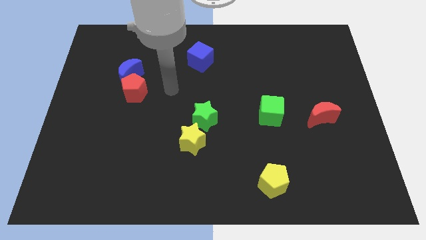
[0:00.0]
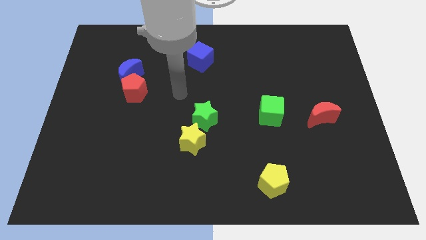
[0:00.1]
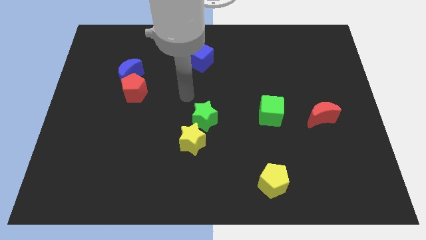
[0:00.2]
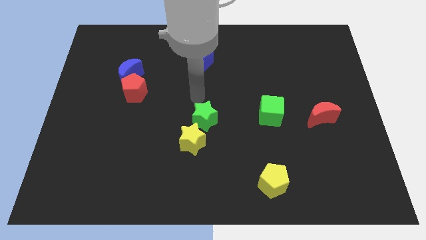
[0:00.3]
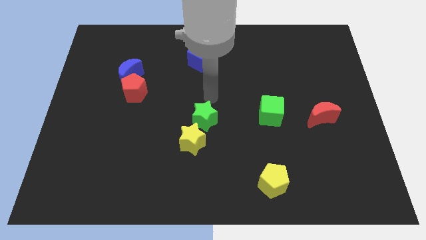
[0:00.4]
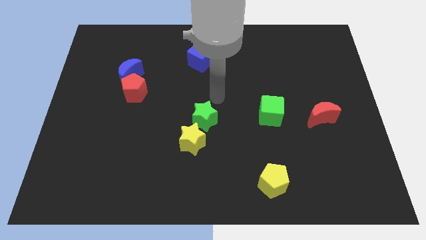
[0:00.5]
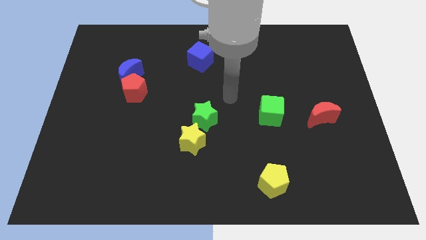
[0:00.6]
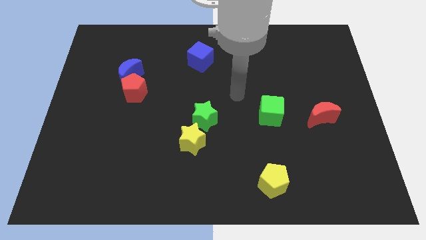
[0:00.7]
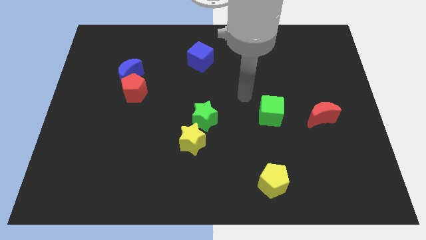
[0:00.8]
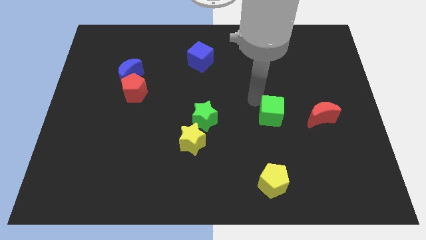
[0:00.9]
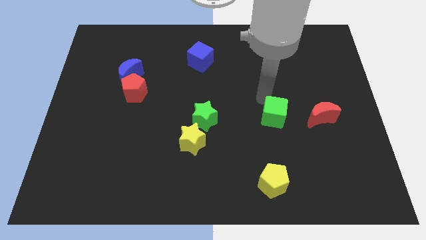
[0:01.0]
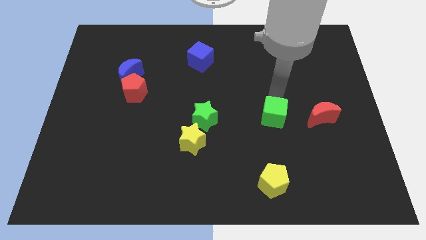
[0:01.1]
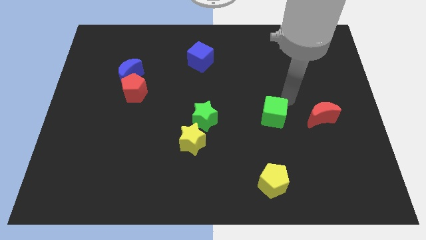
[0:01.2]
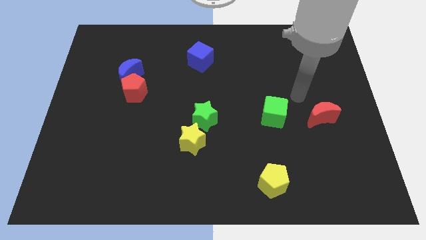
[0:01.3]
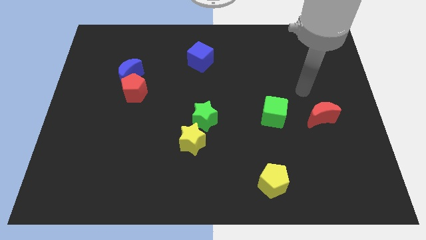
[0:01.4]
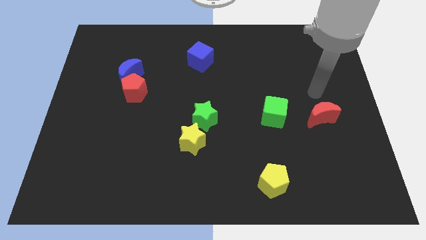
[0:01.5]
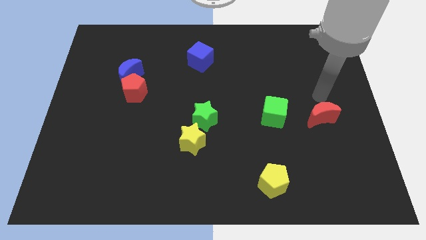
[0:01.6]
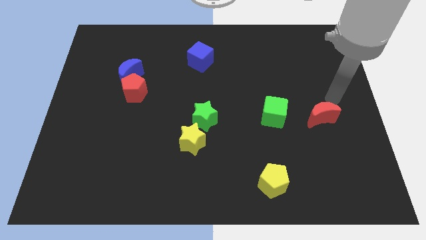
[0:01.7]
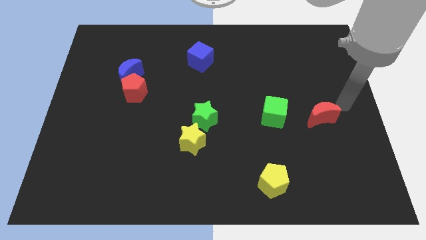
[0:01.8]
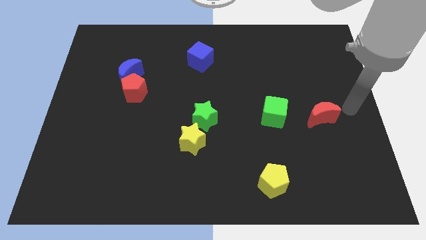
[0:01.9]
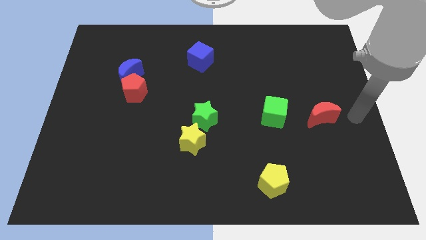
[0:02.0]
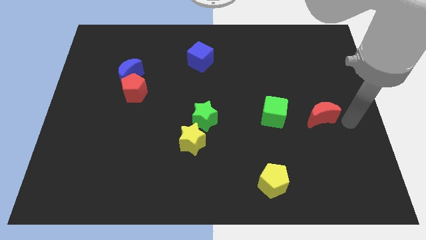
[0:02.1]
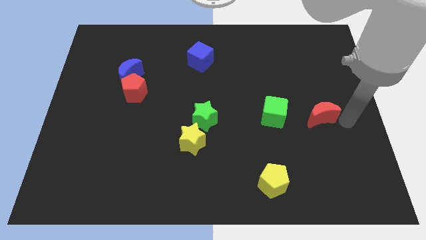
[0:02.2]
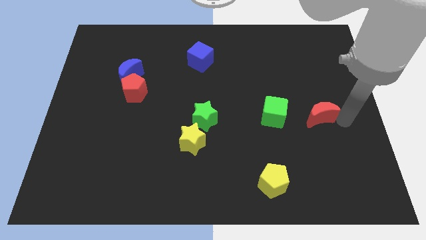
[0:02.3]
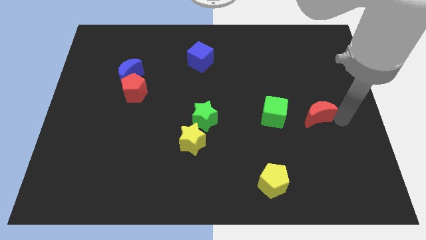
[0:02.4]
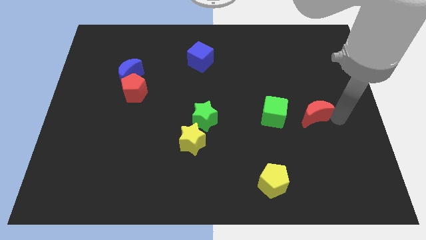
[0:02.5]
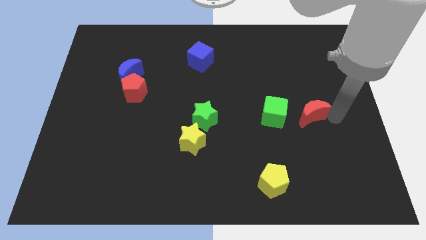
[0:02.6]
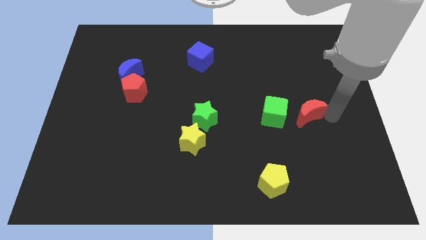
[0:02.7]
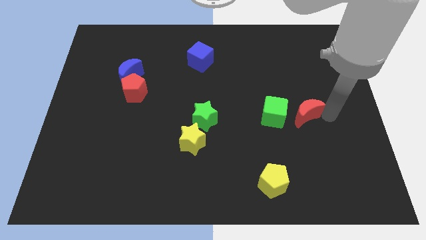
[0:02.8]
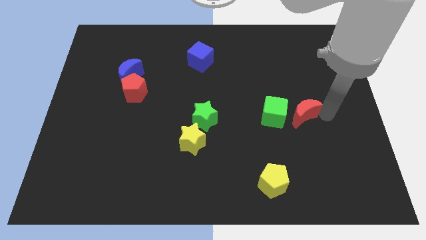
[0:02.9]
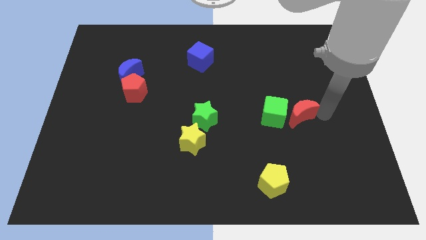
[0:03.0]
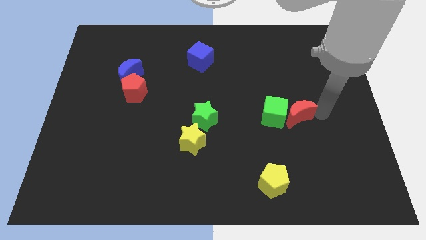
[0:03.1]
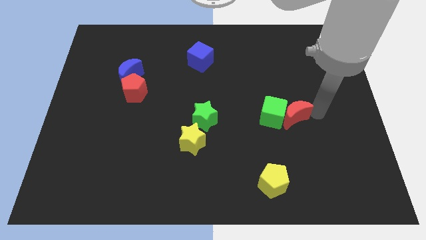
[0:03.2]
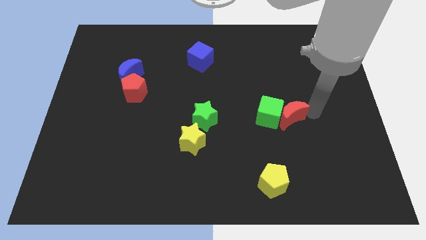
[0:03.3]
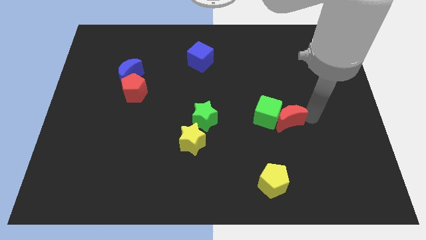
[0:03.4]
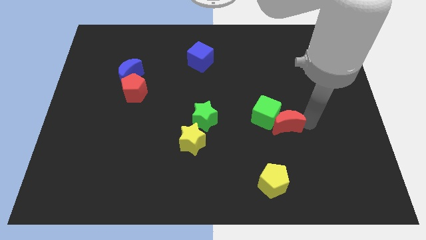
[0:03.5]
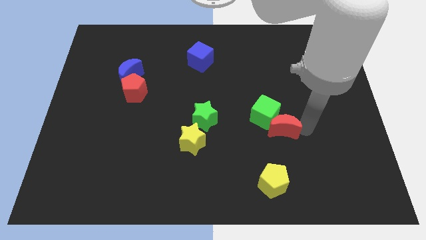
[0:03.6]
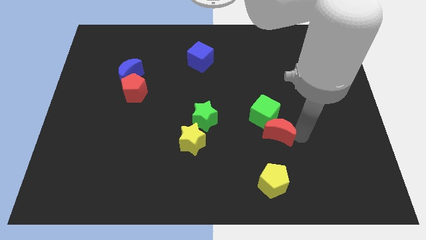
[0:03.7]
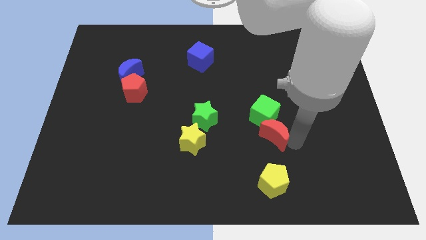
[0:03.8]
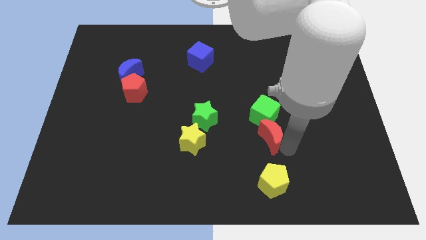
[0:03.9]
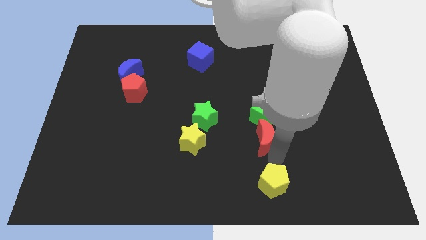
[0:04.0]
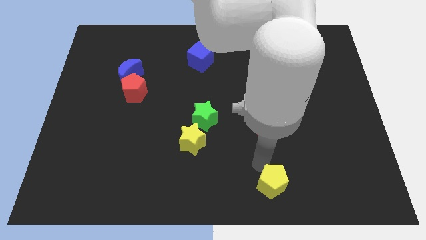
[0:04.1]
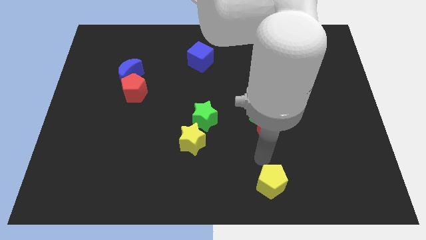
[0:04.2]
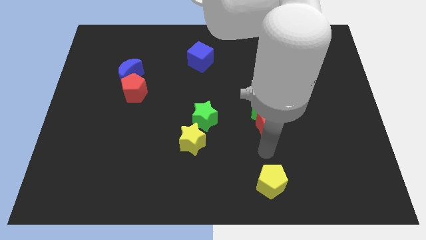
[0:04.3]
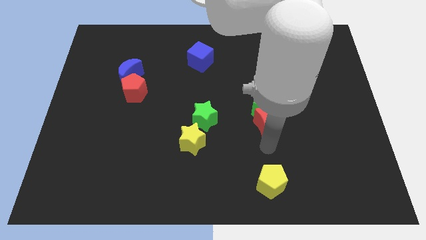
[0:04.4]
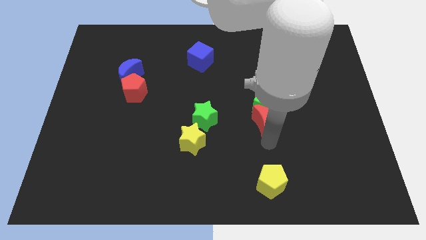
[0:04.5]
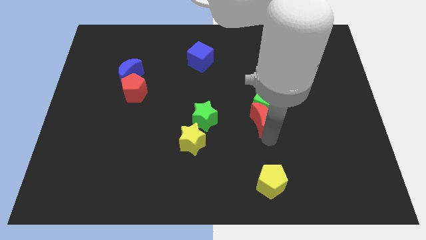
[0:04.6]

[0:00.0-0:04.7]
move the red moon to the middle

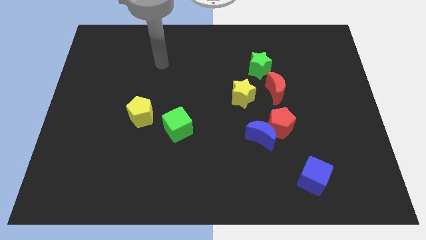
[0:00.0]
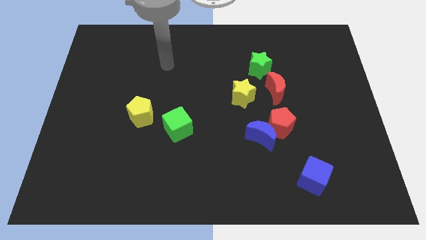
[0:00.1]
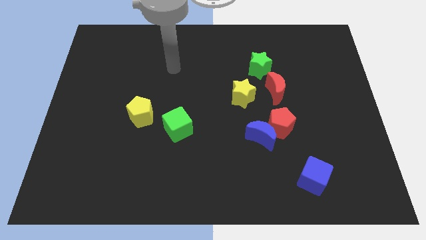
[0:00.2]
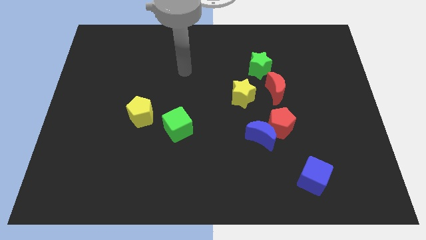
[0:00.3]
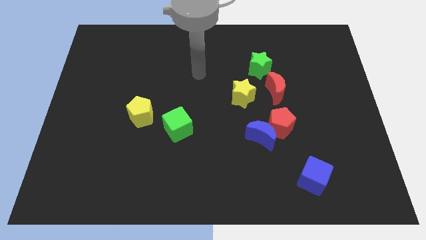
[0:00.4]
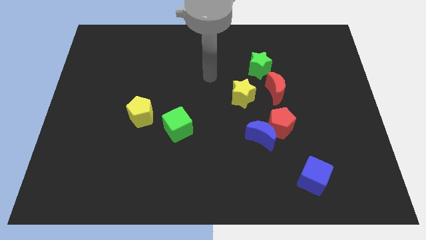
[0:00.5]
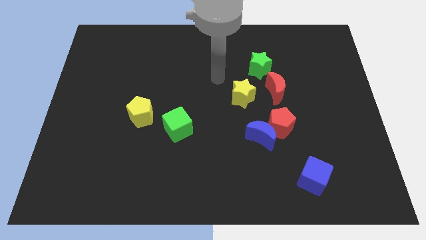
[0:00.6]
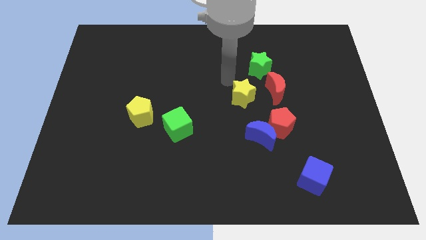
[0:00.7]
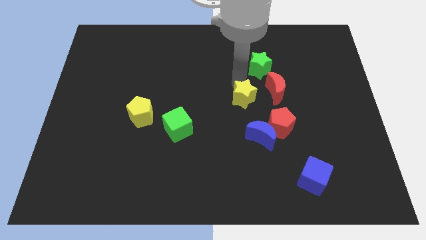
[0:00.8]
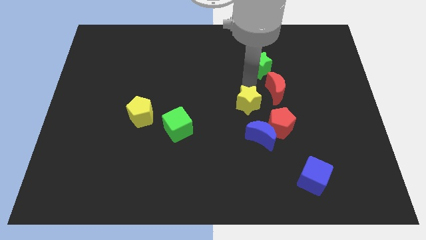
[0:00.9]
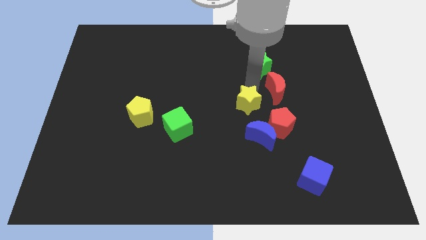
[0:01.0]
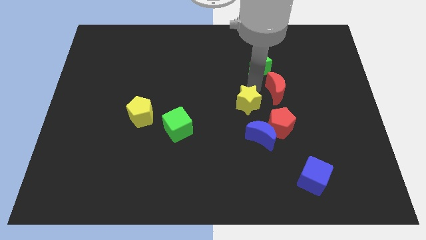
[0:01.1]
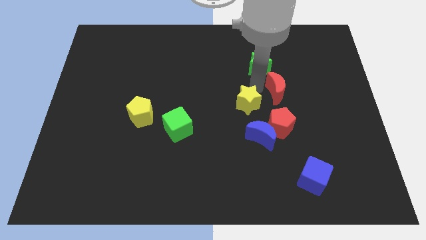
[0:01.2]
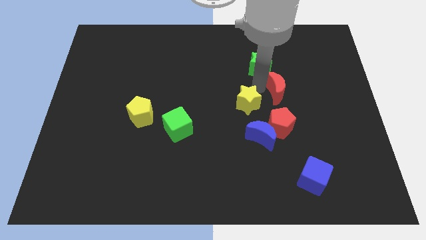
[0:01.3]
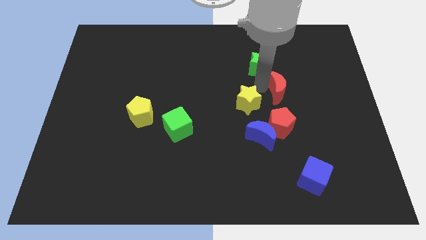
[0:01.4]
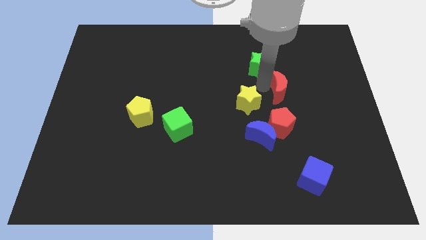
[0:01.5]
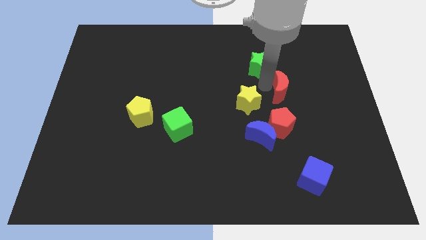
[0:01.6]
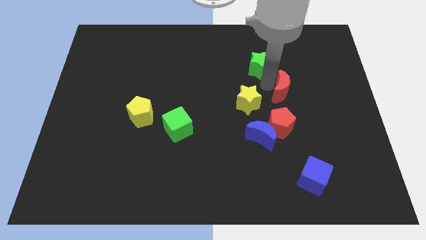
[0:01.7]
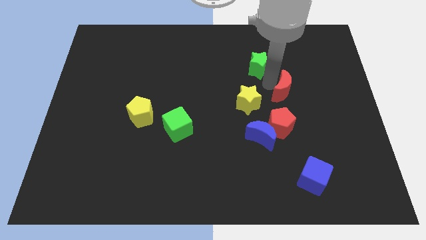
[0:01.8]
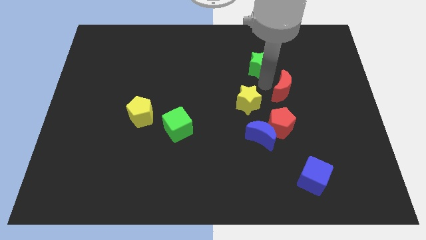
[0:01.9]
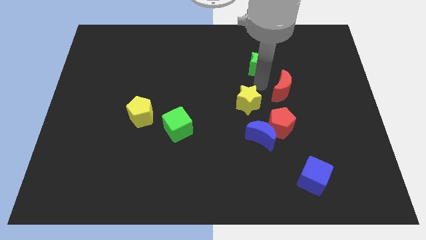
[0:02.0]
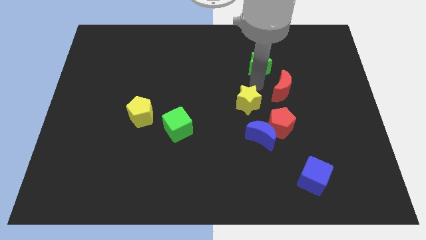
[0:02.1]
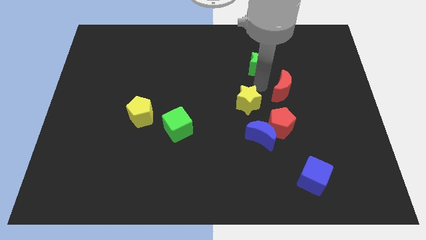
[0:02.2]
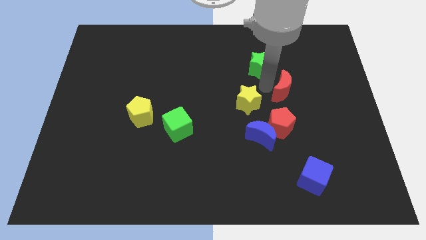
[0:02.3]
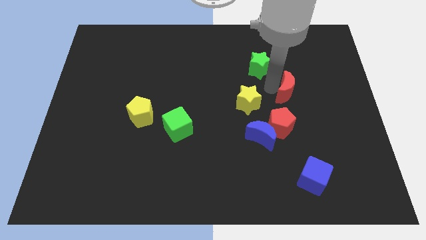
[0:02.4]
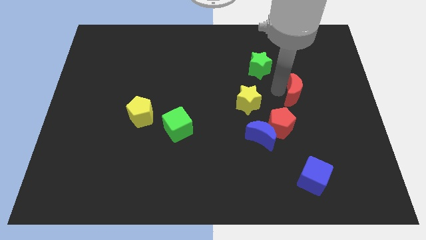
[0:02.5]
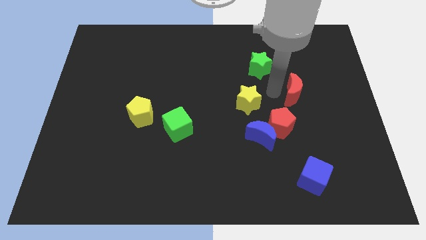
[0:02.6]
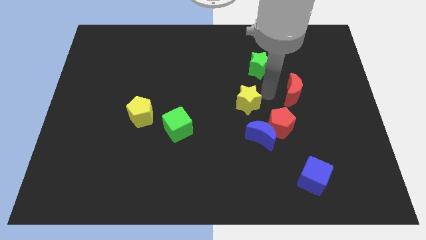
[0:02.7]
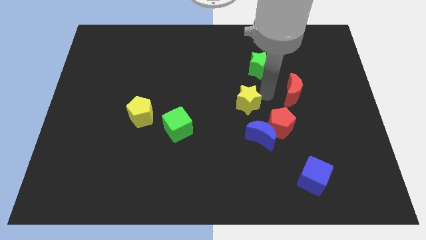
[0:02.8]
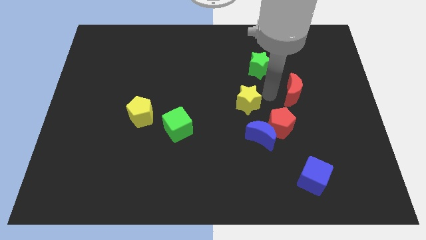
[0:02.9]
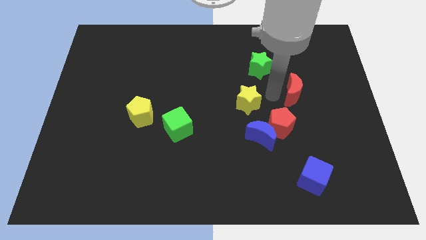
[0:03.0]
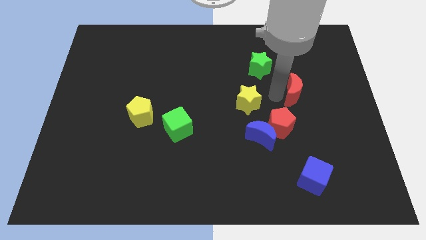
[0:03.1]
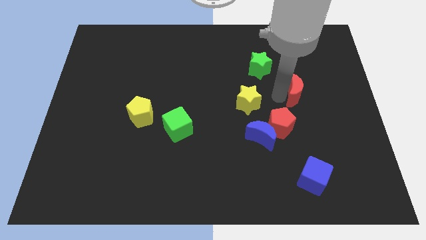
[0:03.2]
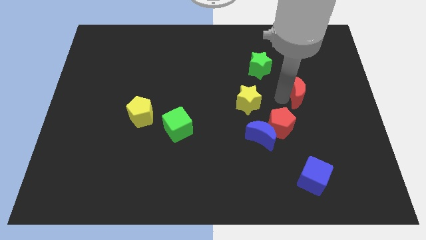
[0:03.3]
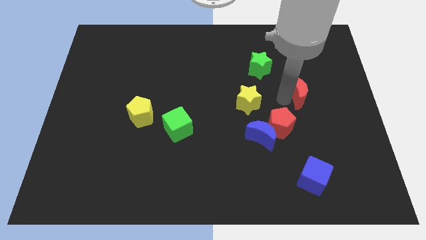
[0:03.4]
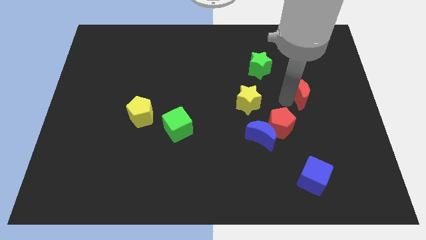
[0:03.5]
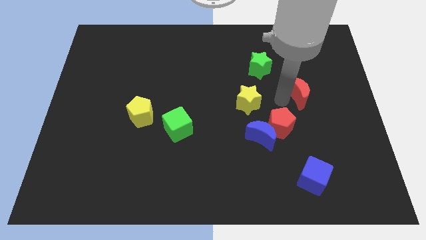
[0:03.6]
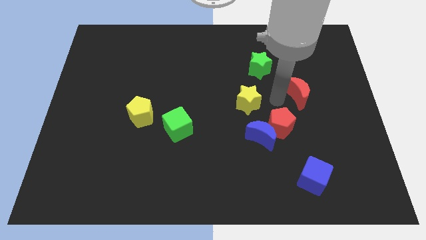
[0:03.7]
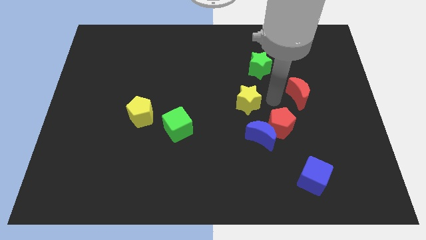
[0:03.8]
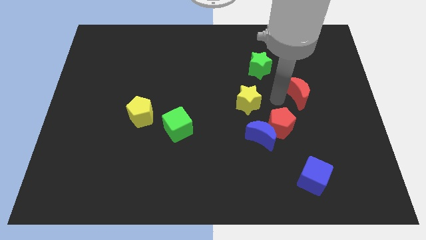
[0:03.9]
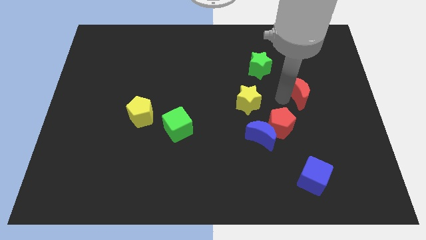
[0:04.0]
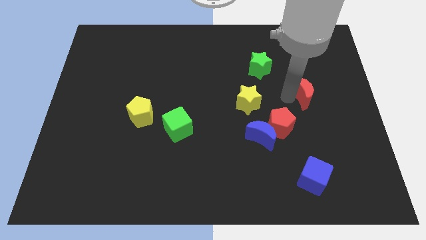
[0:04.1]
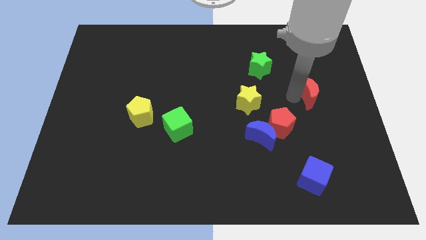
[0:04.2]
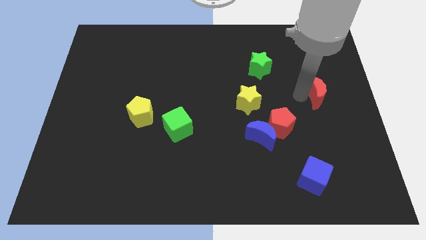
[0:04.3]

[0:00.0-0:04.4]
put the red moon to the right side
